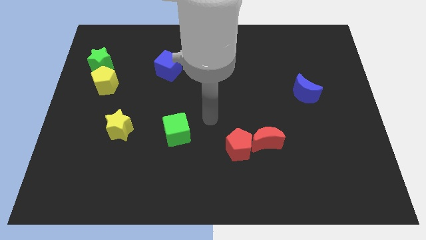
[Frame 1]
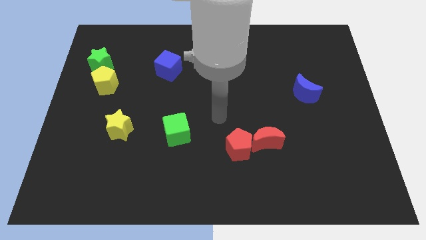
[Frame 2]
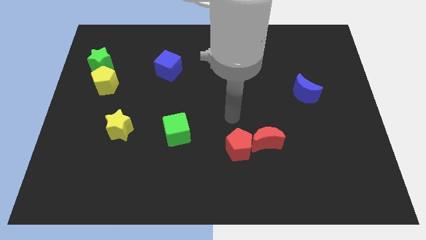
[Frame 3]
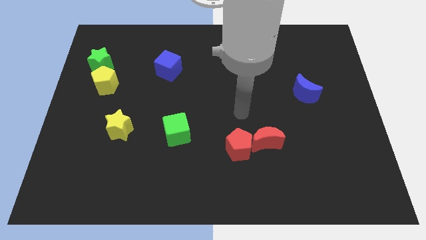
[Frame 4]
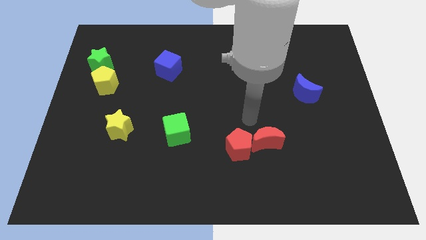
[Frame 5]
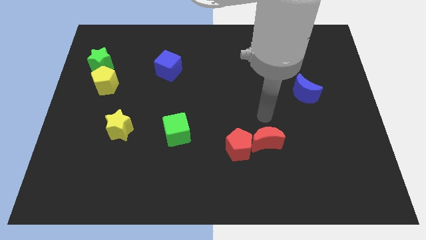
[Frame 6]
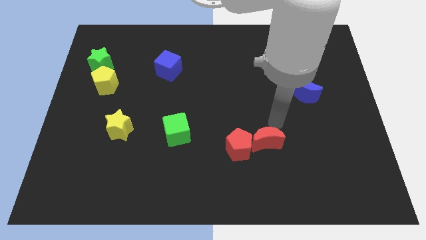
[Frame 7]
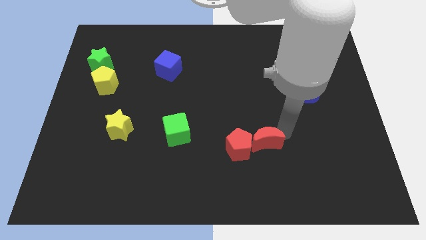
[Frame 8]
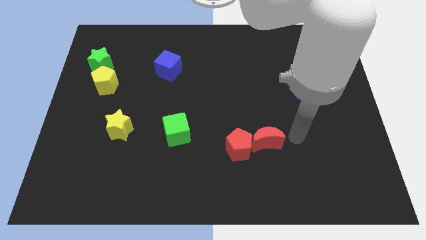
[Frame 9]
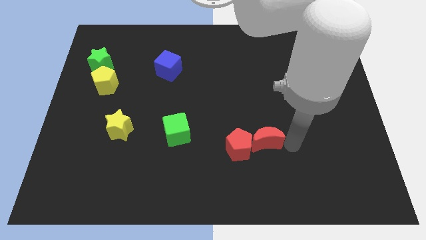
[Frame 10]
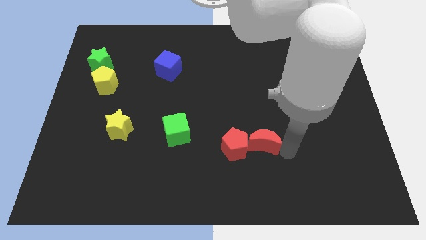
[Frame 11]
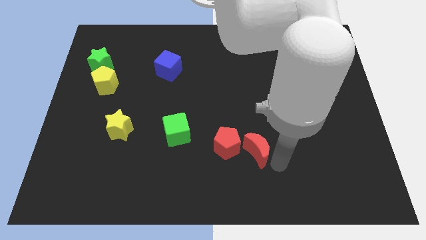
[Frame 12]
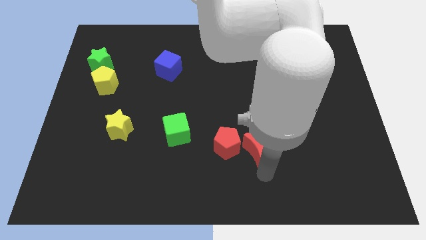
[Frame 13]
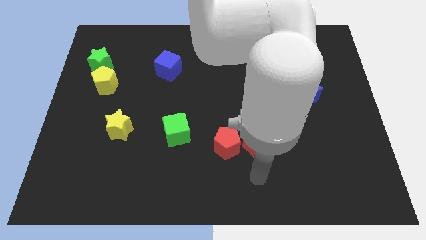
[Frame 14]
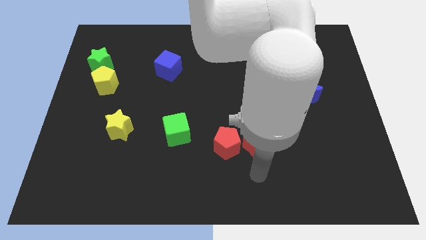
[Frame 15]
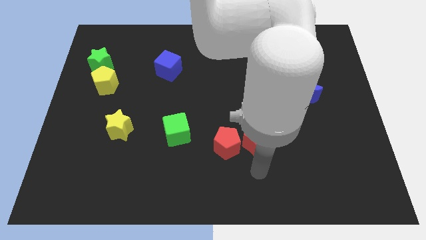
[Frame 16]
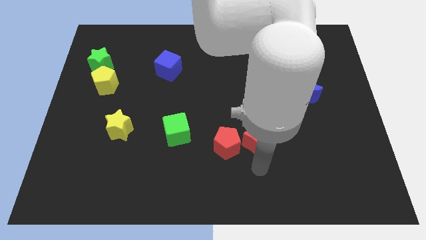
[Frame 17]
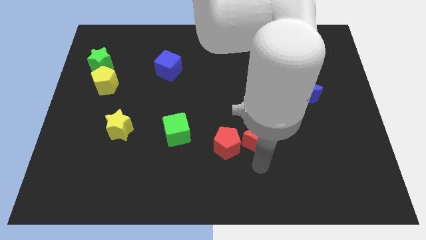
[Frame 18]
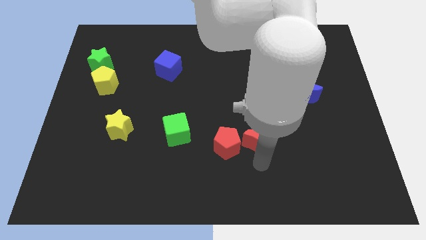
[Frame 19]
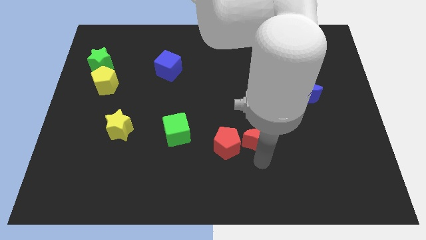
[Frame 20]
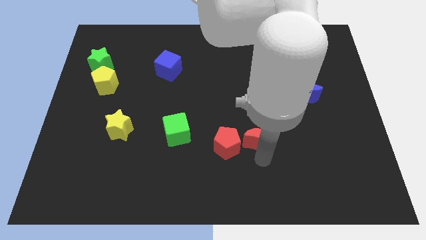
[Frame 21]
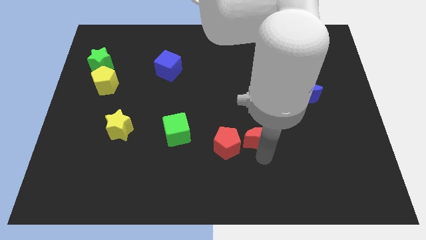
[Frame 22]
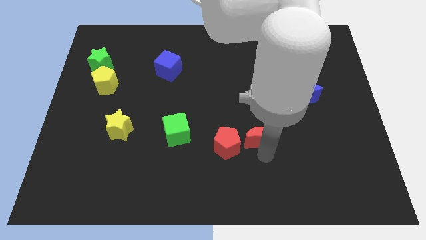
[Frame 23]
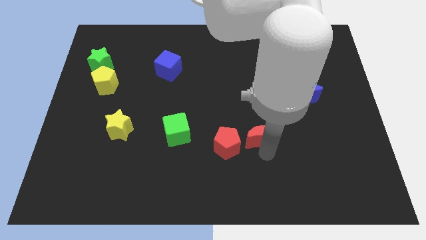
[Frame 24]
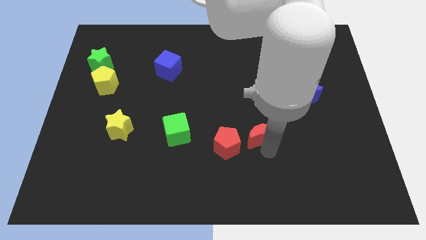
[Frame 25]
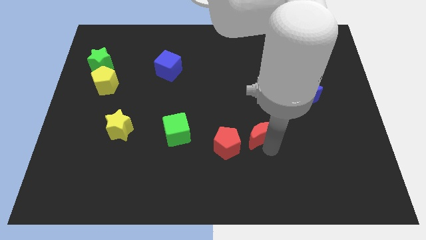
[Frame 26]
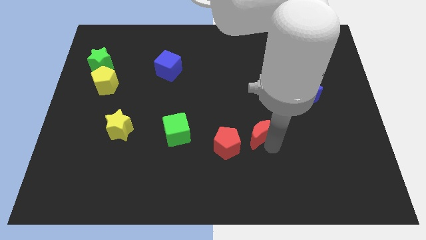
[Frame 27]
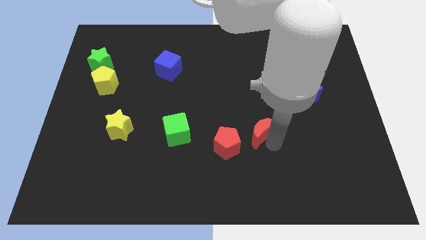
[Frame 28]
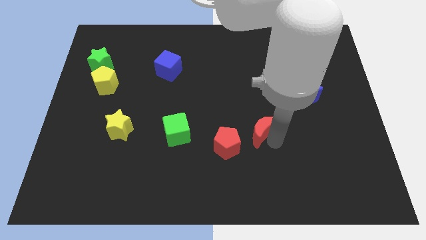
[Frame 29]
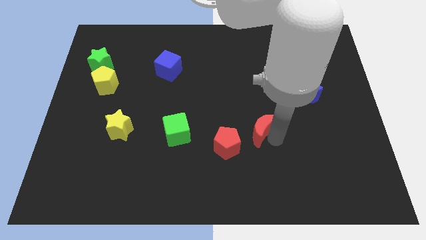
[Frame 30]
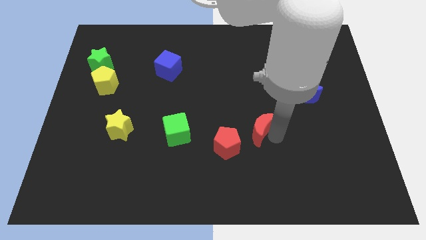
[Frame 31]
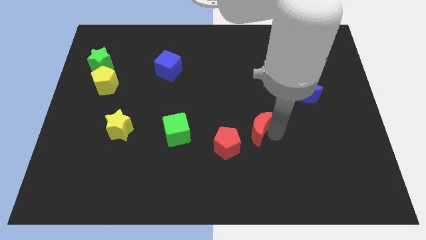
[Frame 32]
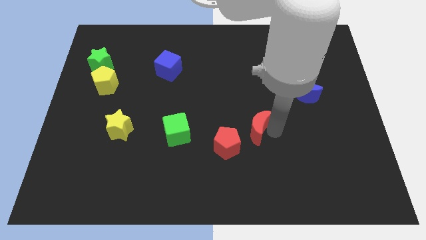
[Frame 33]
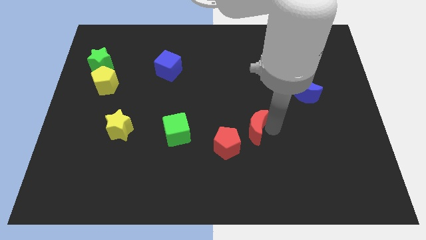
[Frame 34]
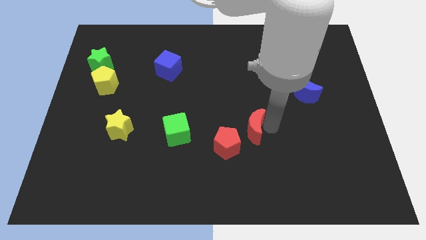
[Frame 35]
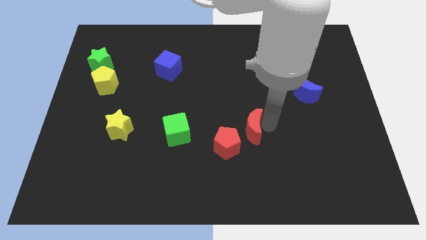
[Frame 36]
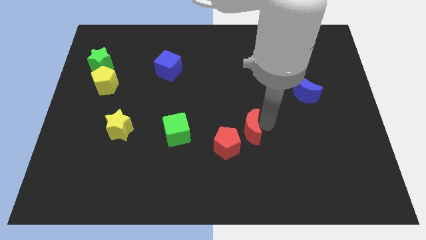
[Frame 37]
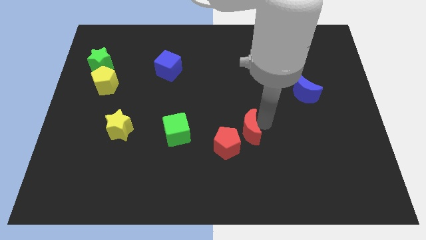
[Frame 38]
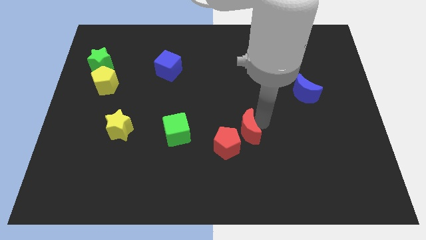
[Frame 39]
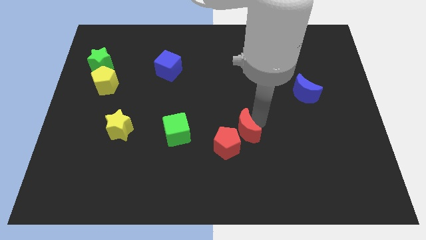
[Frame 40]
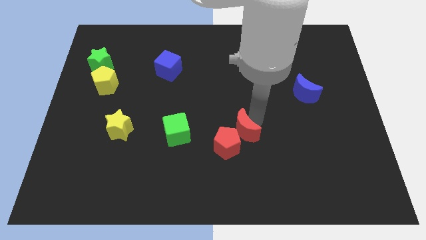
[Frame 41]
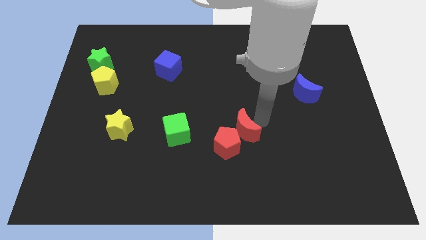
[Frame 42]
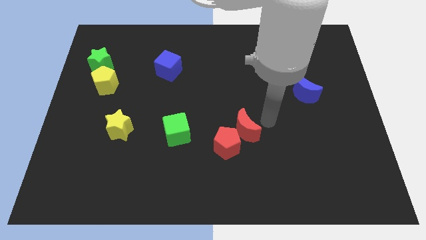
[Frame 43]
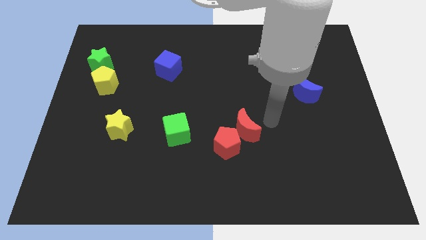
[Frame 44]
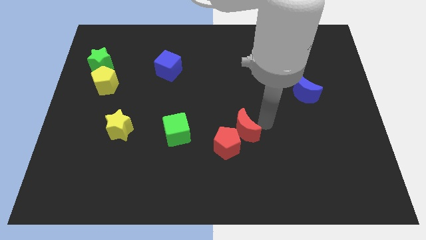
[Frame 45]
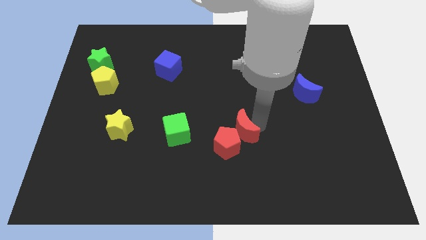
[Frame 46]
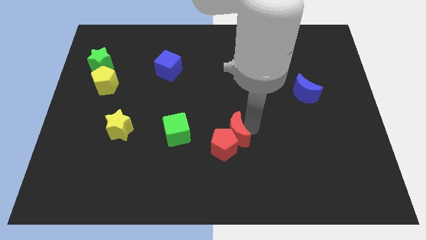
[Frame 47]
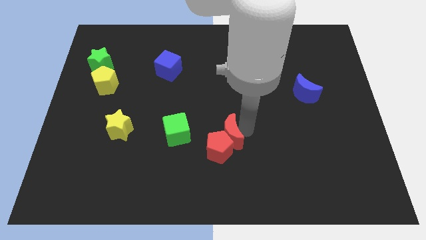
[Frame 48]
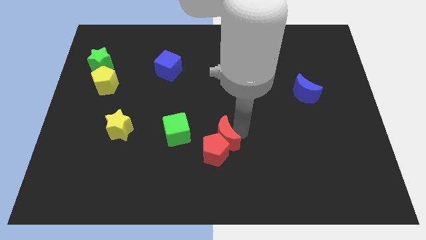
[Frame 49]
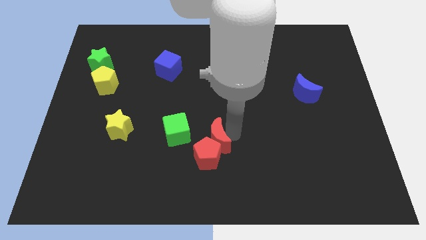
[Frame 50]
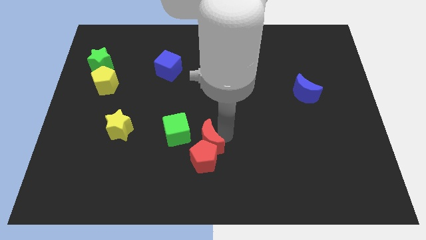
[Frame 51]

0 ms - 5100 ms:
move the red moon to the bottom right side of the green cube

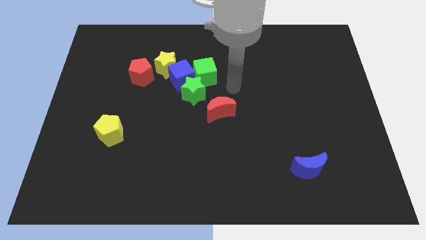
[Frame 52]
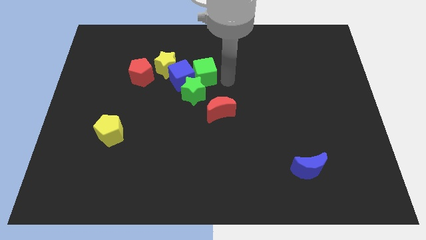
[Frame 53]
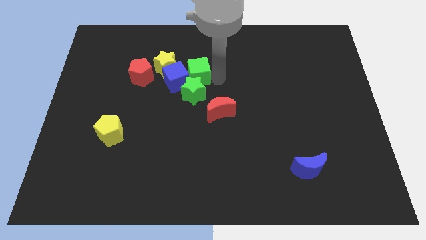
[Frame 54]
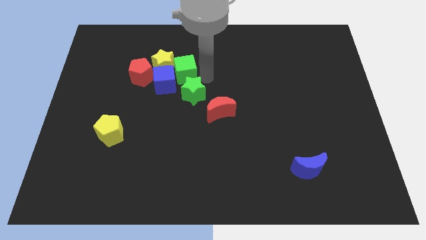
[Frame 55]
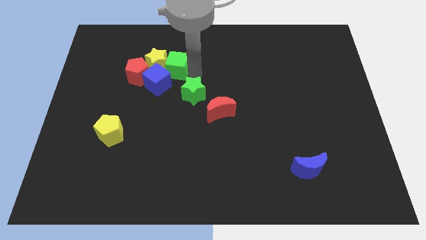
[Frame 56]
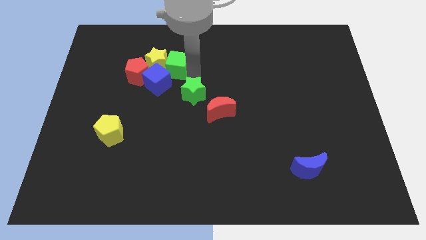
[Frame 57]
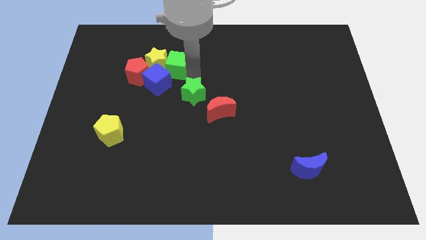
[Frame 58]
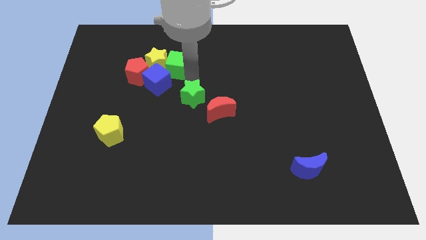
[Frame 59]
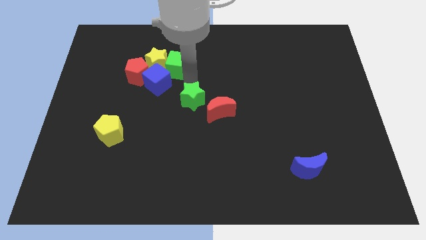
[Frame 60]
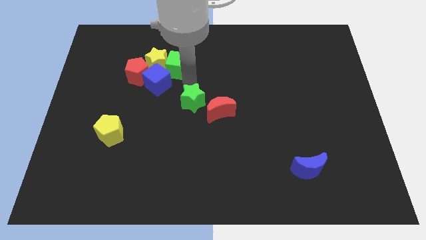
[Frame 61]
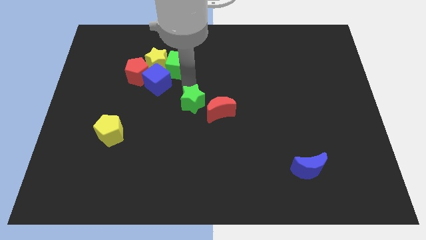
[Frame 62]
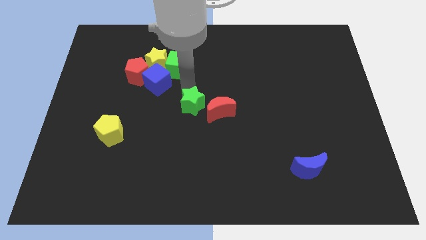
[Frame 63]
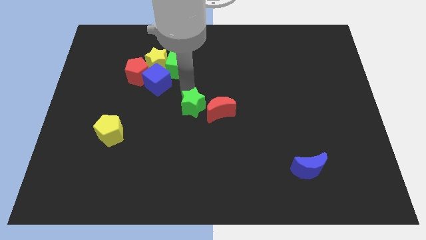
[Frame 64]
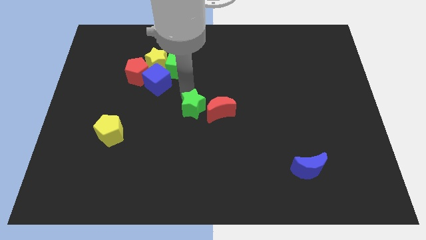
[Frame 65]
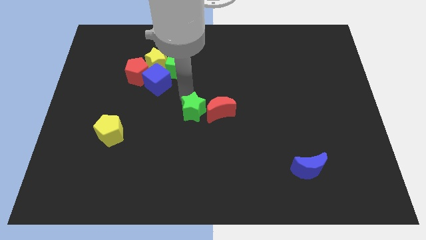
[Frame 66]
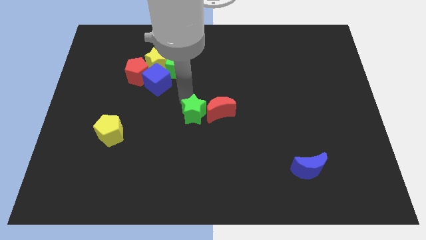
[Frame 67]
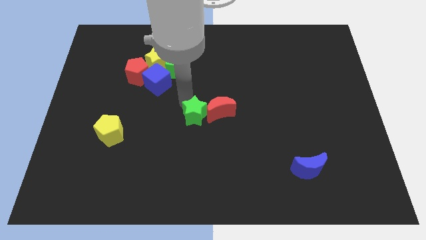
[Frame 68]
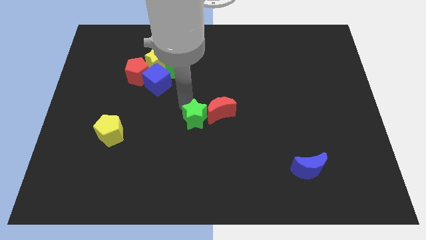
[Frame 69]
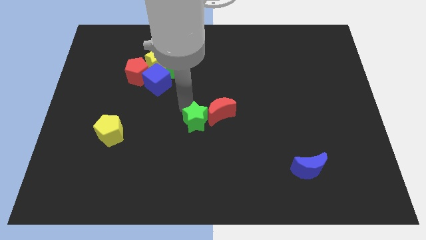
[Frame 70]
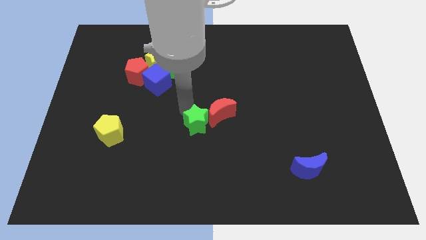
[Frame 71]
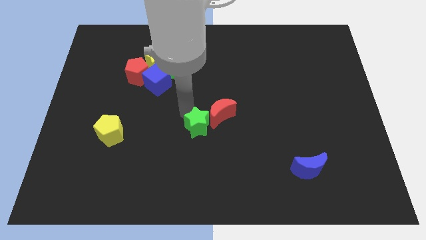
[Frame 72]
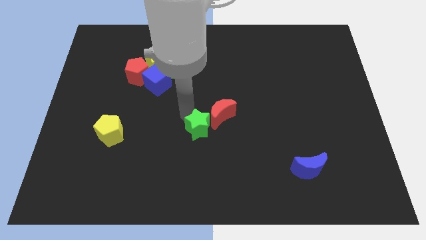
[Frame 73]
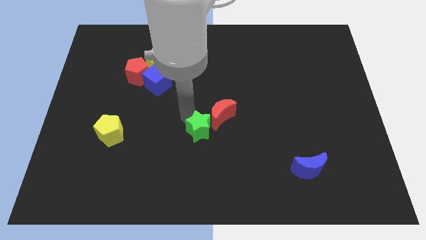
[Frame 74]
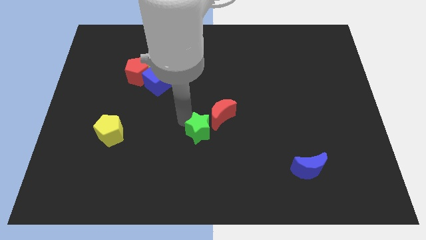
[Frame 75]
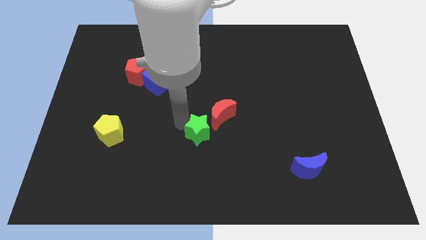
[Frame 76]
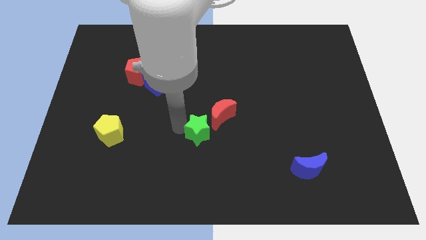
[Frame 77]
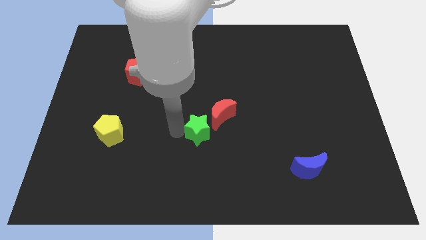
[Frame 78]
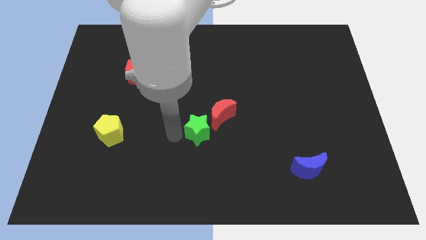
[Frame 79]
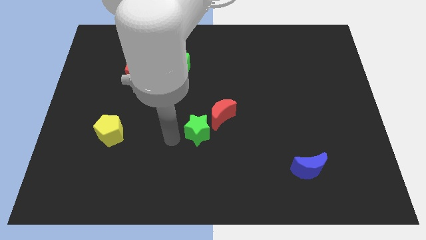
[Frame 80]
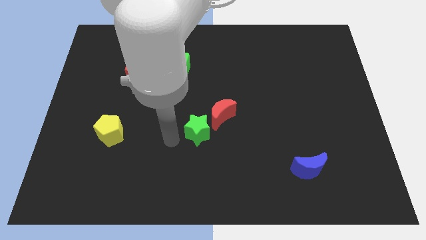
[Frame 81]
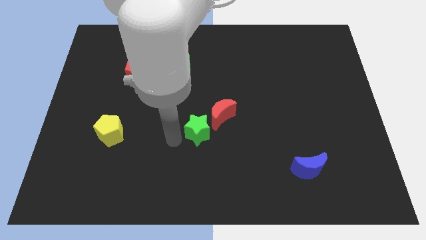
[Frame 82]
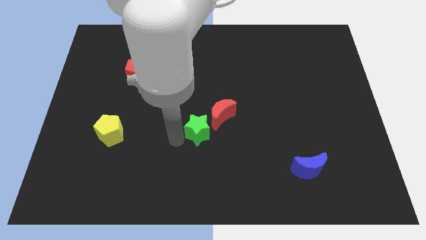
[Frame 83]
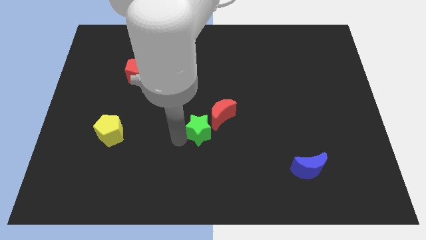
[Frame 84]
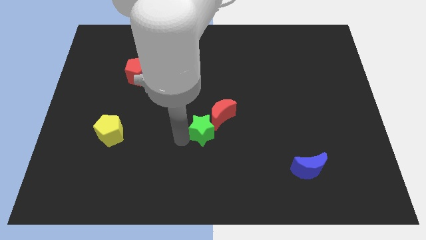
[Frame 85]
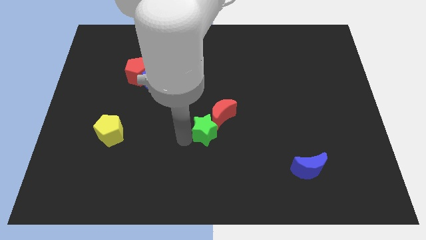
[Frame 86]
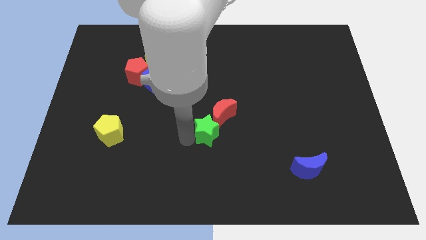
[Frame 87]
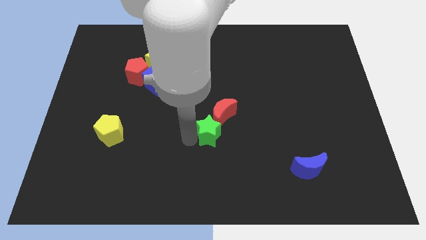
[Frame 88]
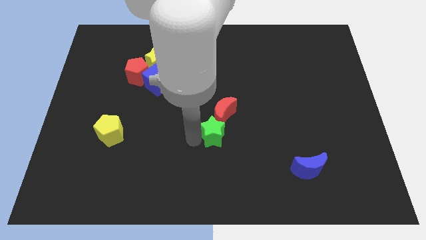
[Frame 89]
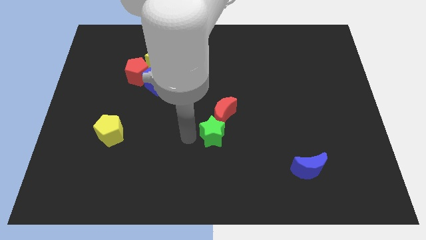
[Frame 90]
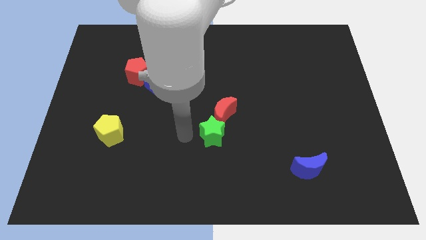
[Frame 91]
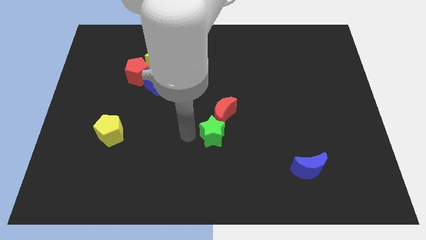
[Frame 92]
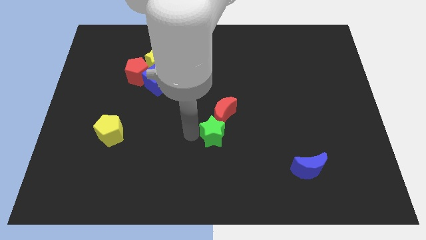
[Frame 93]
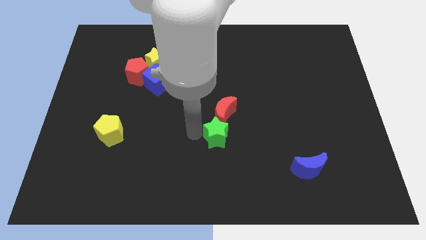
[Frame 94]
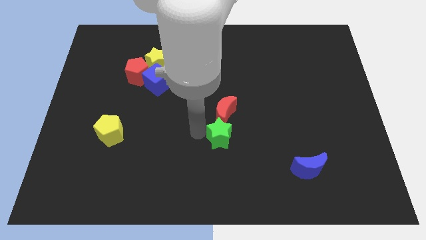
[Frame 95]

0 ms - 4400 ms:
move the green star to the bottom right side of the red moon
